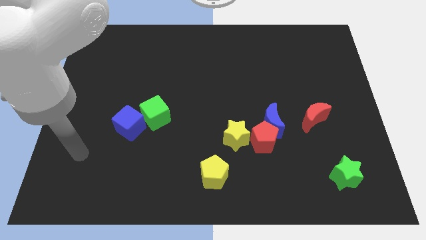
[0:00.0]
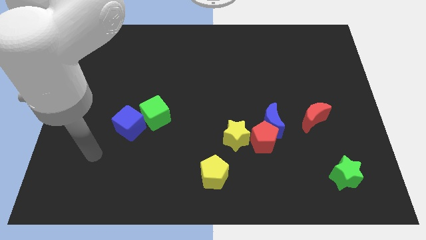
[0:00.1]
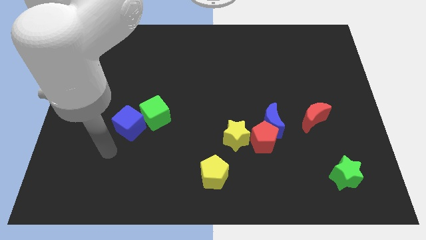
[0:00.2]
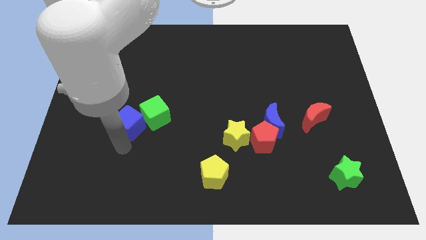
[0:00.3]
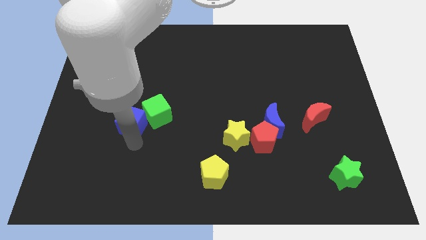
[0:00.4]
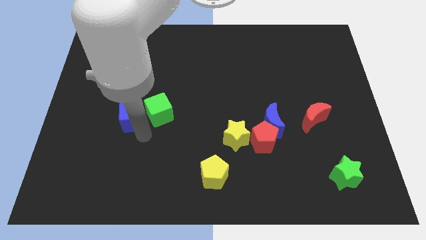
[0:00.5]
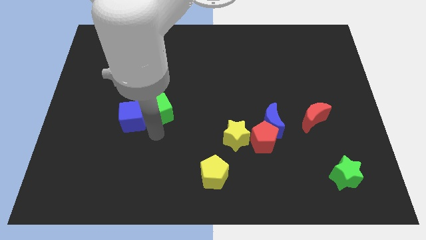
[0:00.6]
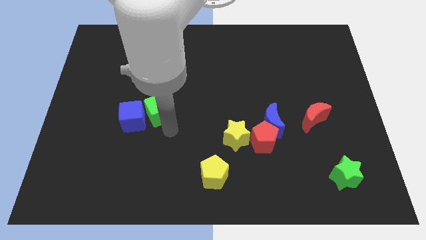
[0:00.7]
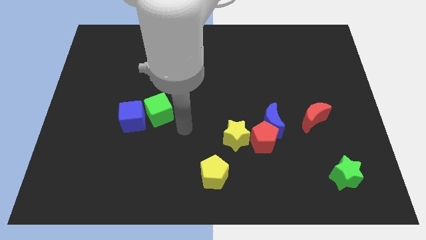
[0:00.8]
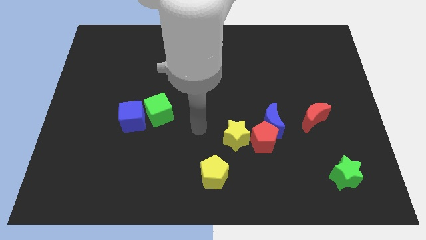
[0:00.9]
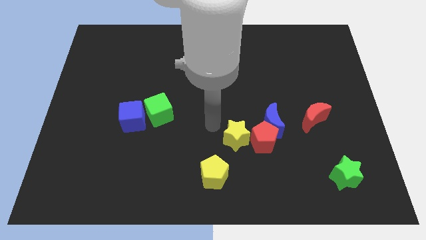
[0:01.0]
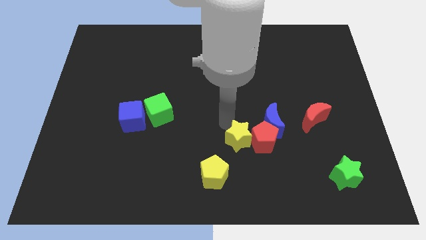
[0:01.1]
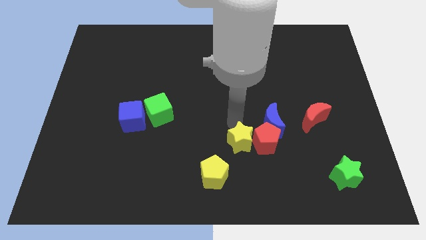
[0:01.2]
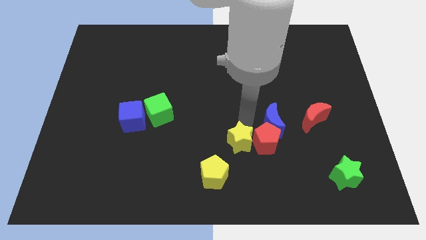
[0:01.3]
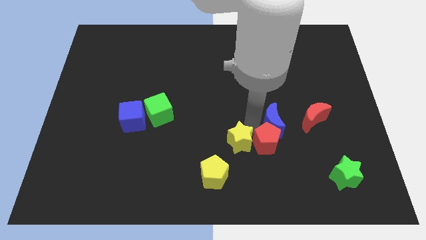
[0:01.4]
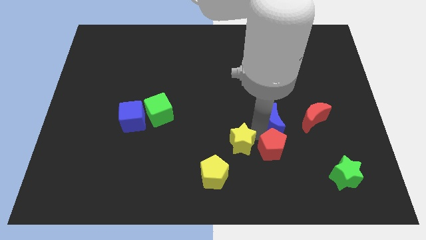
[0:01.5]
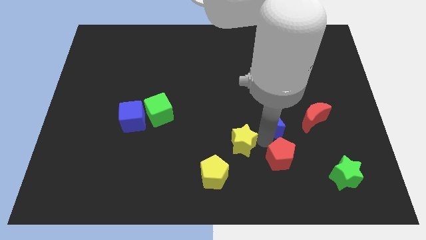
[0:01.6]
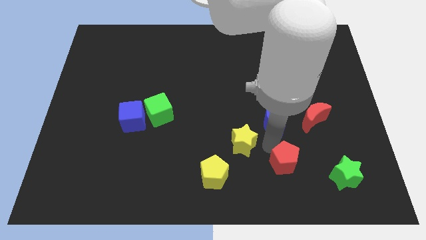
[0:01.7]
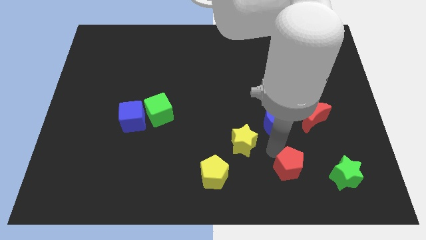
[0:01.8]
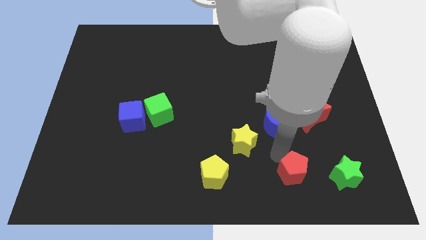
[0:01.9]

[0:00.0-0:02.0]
move the red pentagon away from the blue moon and yellow star

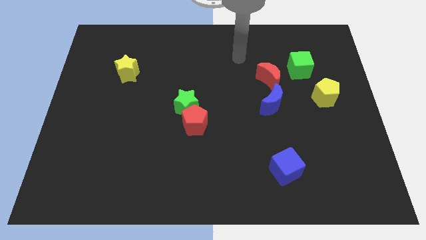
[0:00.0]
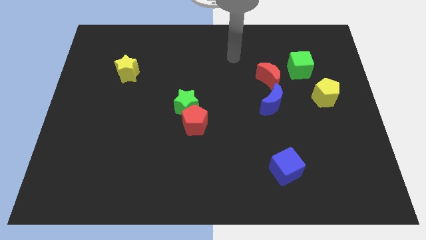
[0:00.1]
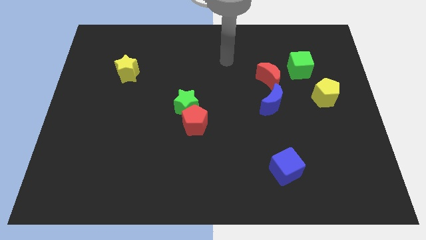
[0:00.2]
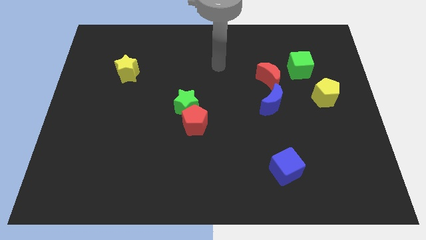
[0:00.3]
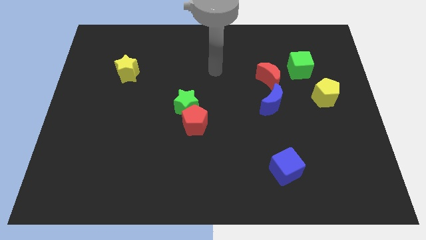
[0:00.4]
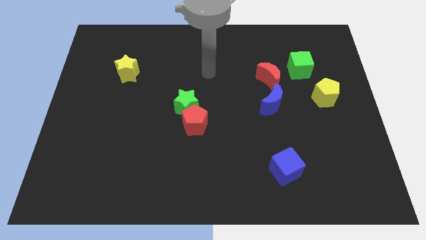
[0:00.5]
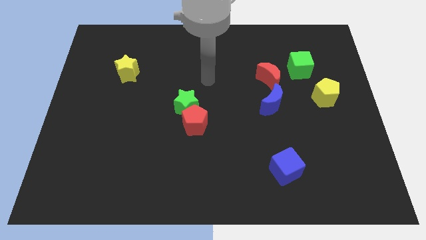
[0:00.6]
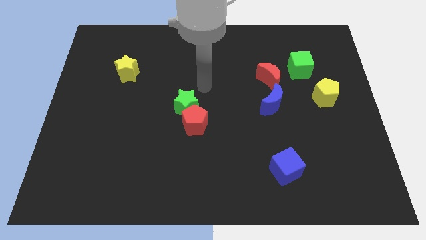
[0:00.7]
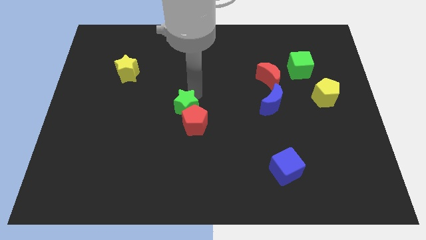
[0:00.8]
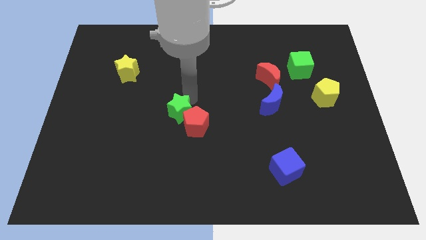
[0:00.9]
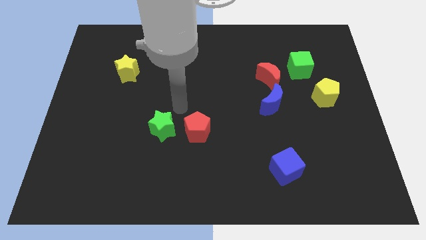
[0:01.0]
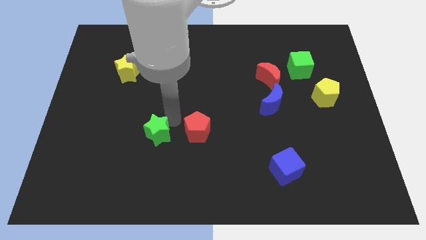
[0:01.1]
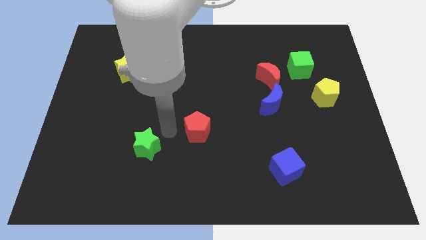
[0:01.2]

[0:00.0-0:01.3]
pull the red pentagon apart from the green star

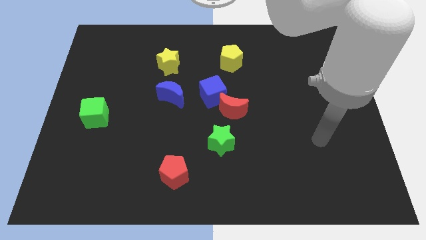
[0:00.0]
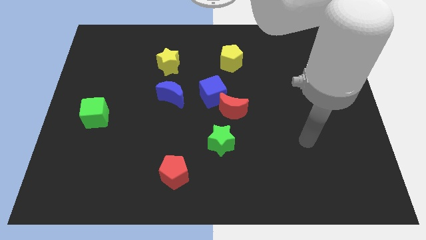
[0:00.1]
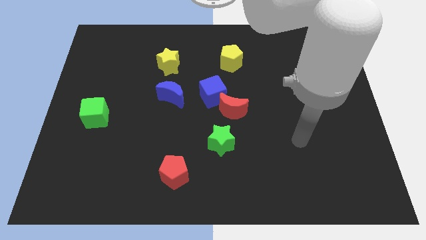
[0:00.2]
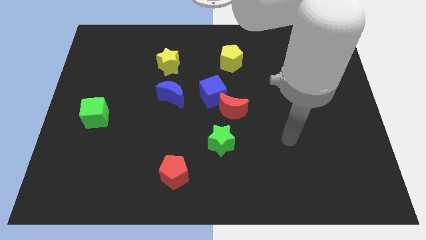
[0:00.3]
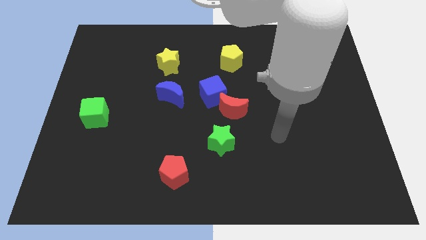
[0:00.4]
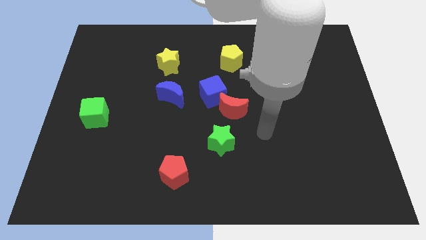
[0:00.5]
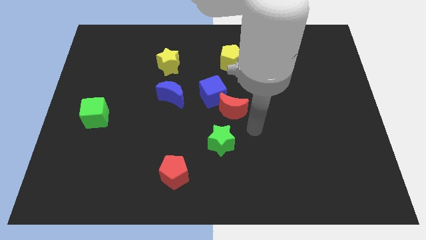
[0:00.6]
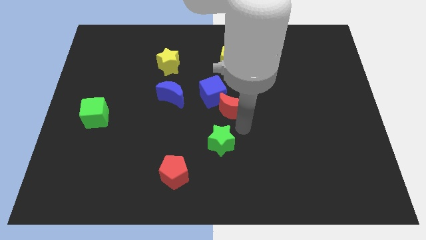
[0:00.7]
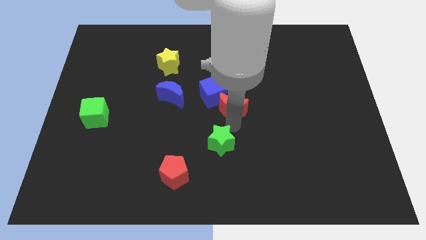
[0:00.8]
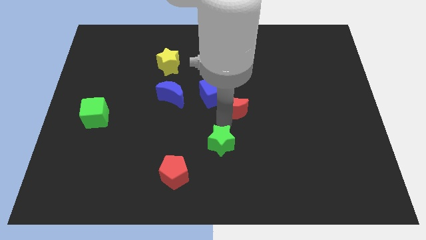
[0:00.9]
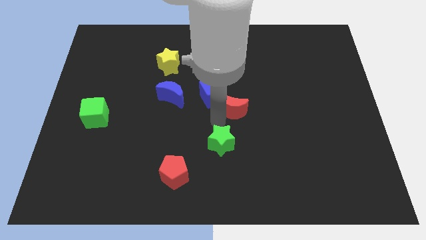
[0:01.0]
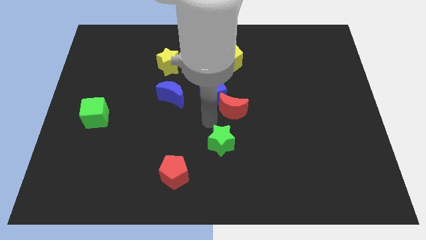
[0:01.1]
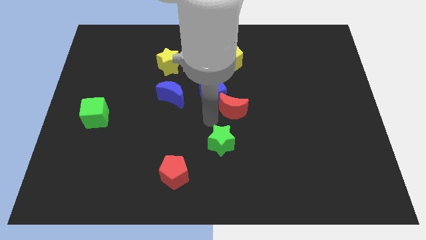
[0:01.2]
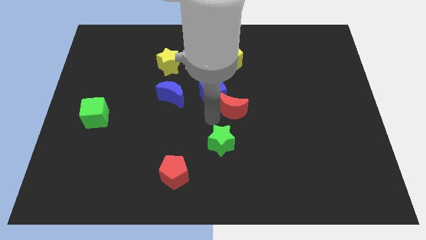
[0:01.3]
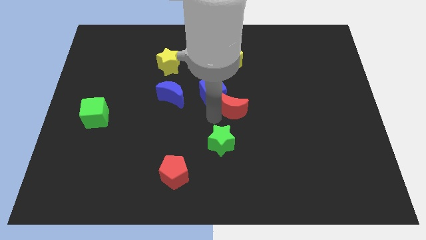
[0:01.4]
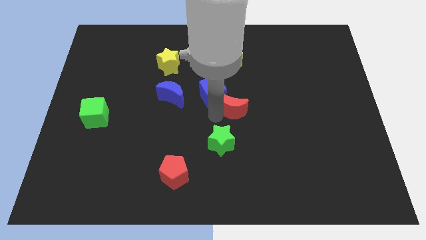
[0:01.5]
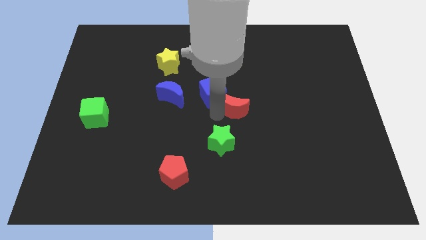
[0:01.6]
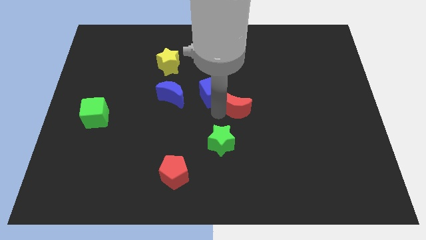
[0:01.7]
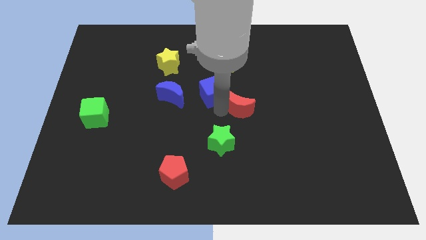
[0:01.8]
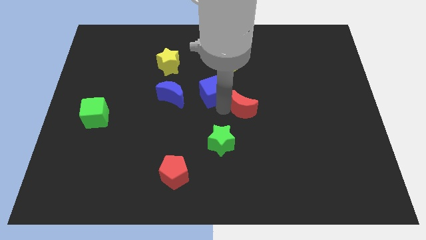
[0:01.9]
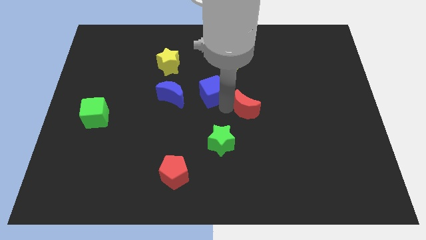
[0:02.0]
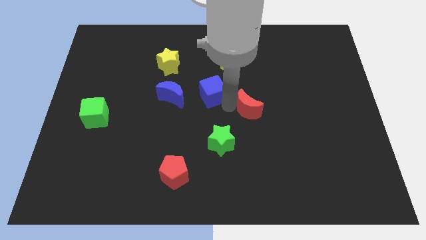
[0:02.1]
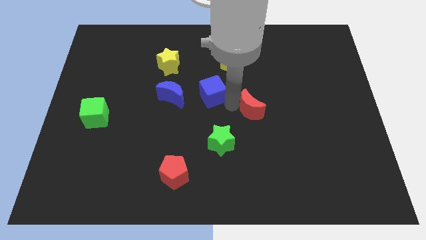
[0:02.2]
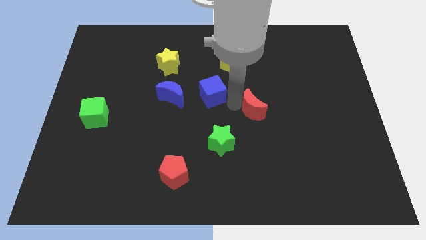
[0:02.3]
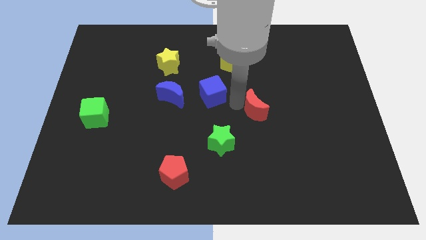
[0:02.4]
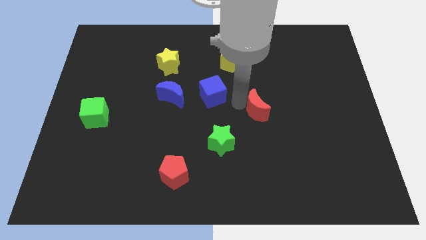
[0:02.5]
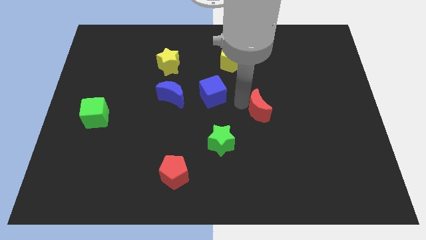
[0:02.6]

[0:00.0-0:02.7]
move the red moon away from the blue cube and green star

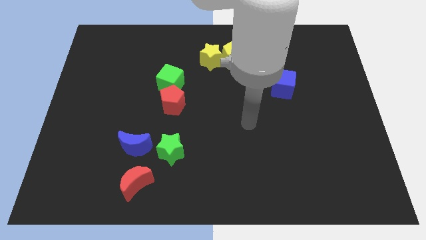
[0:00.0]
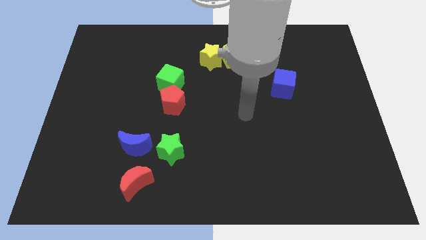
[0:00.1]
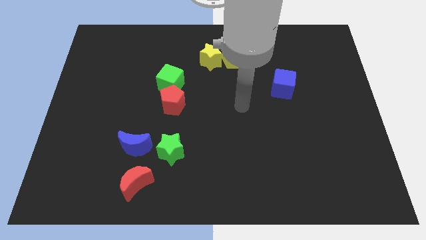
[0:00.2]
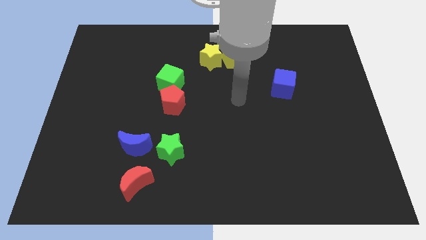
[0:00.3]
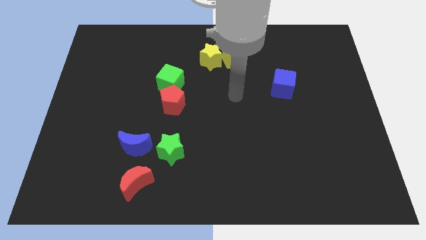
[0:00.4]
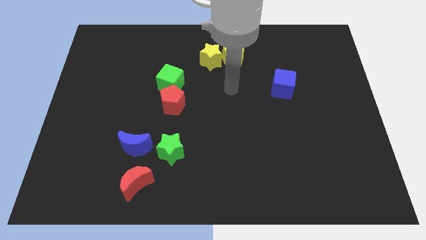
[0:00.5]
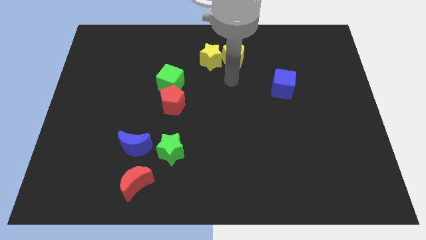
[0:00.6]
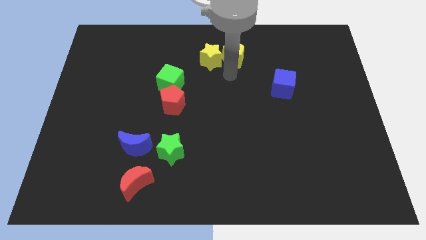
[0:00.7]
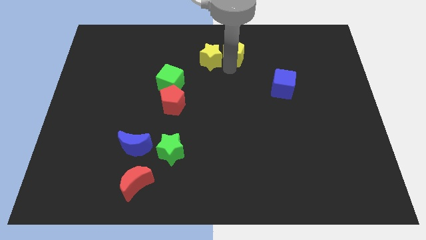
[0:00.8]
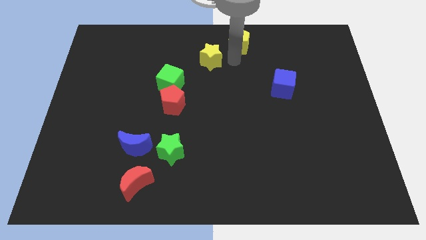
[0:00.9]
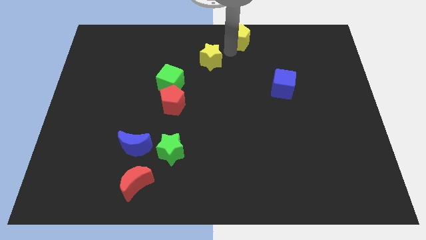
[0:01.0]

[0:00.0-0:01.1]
separate the yellow star from the yellow pentagon

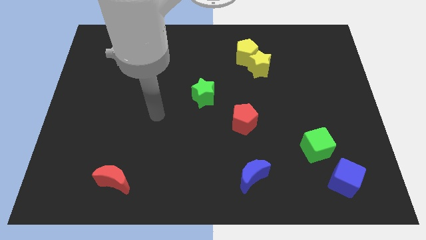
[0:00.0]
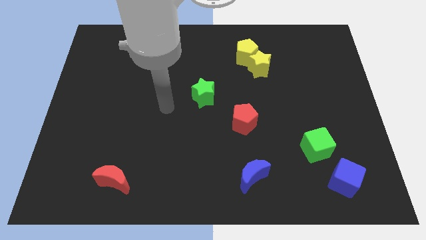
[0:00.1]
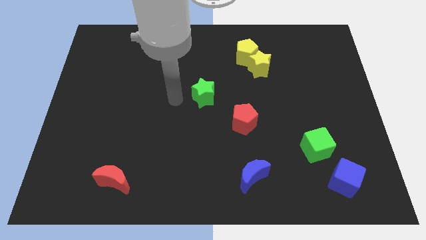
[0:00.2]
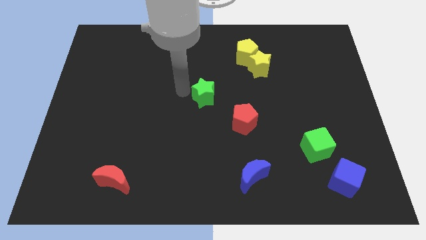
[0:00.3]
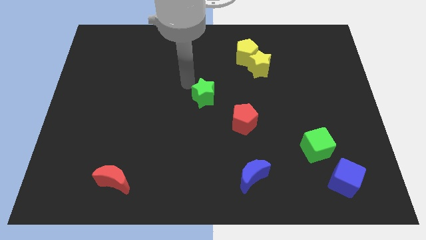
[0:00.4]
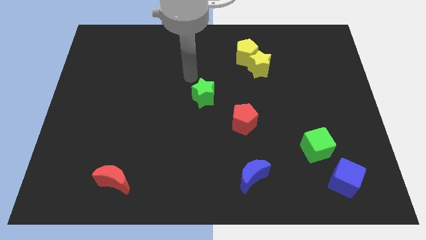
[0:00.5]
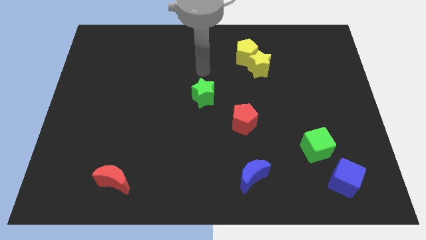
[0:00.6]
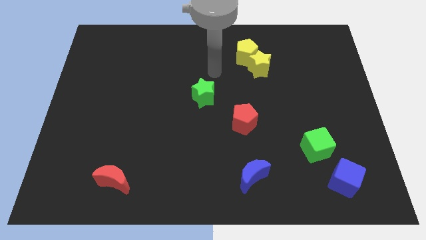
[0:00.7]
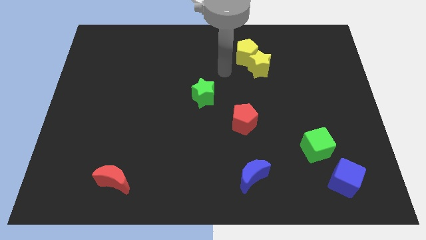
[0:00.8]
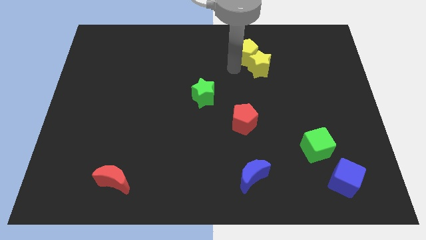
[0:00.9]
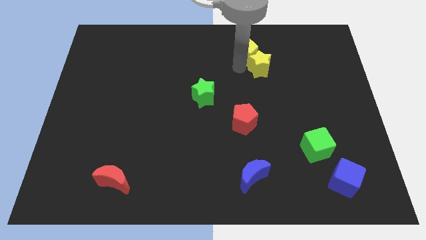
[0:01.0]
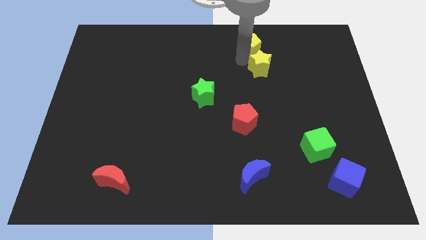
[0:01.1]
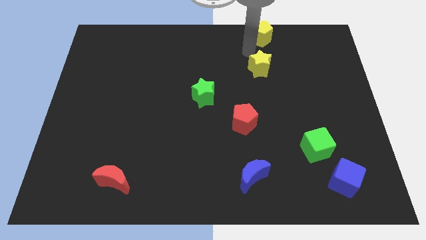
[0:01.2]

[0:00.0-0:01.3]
pull the yellow star apart from the yellow pentagon

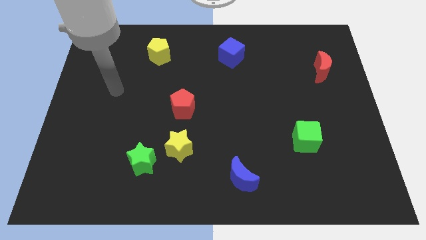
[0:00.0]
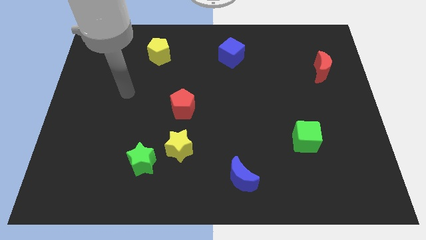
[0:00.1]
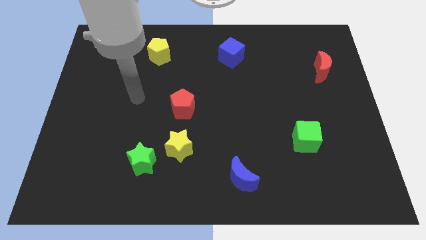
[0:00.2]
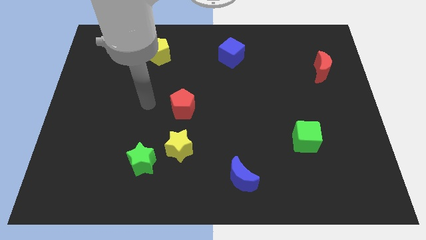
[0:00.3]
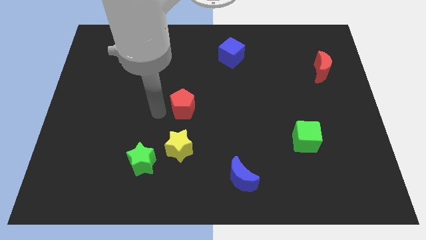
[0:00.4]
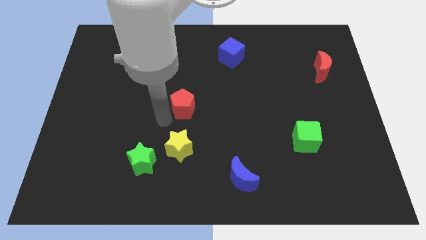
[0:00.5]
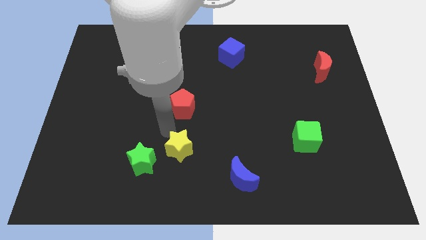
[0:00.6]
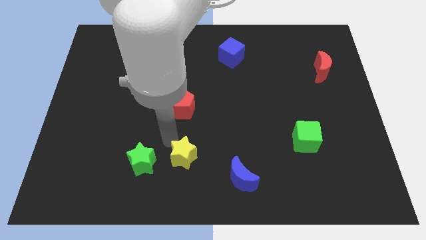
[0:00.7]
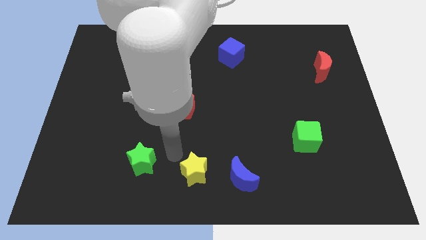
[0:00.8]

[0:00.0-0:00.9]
pull the green star apart from the yellow star
